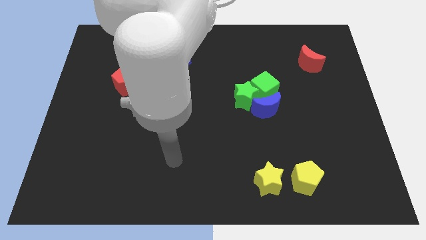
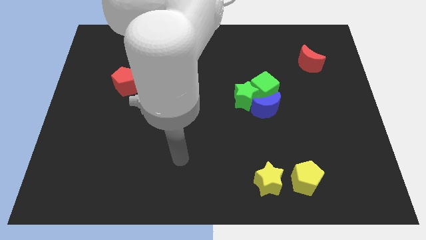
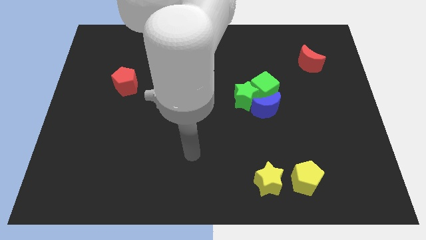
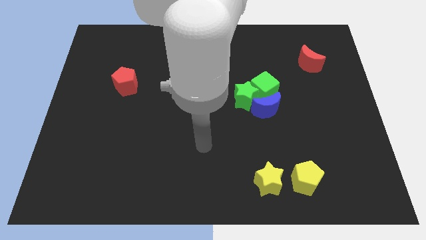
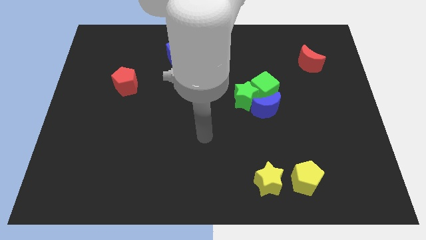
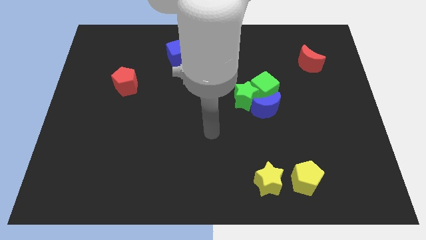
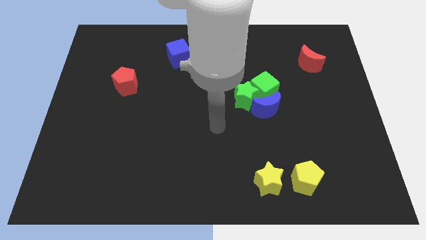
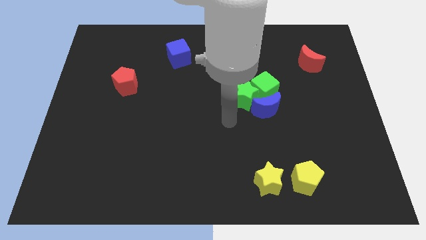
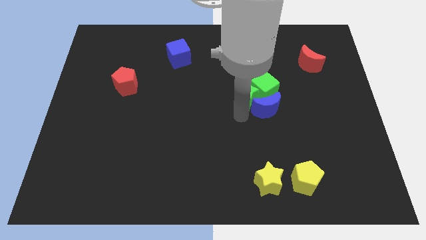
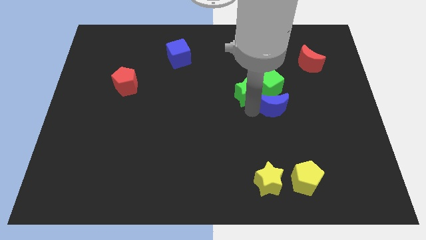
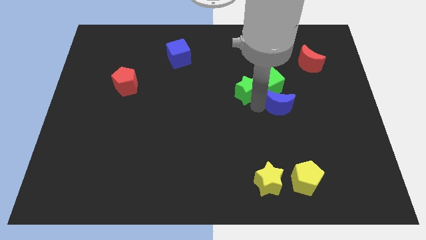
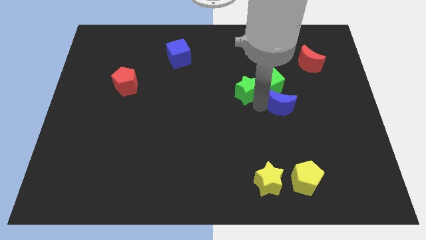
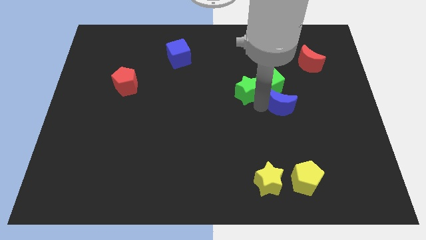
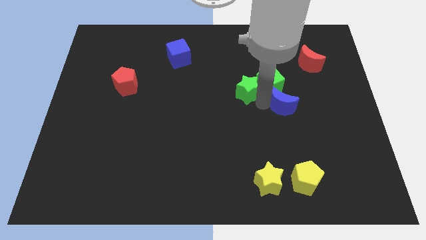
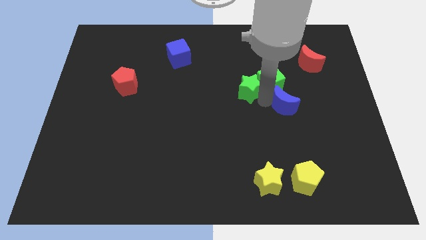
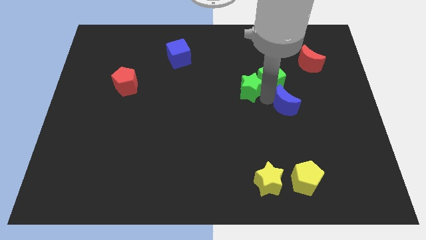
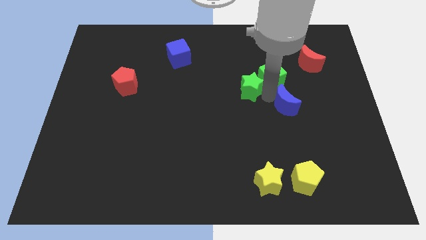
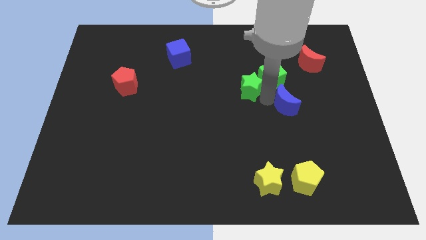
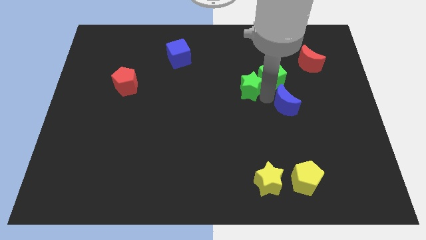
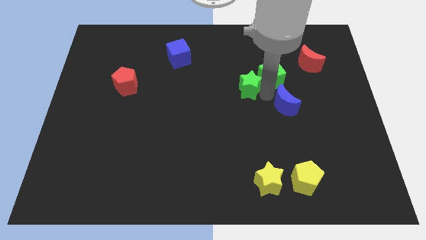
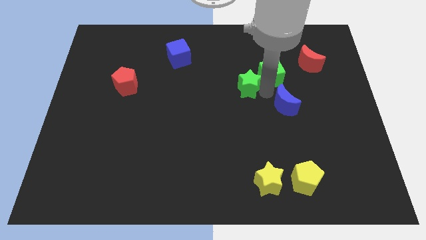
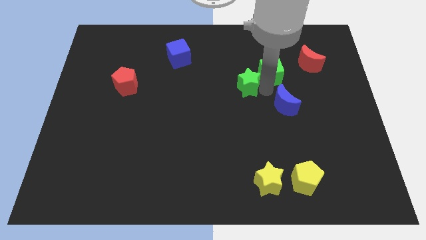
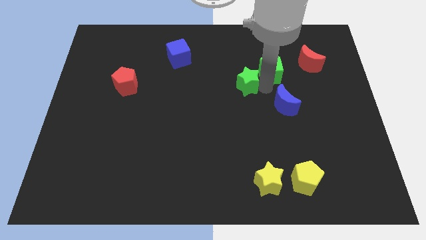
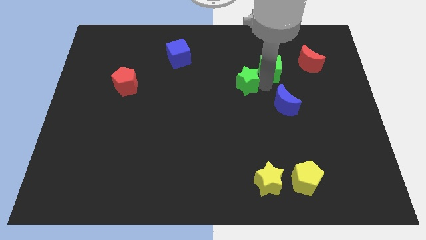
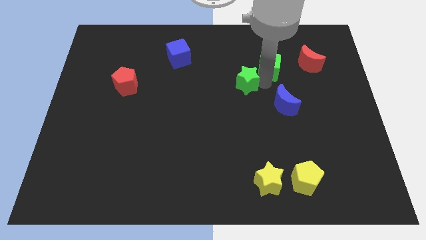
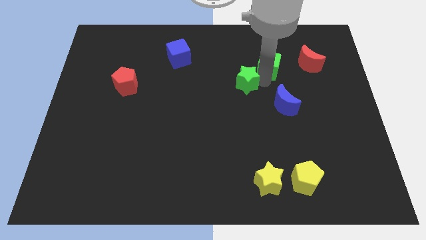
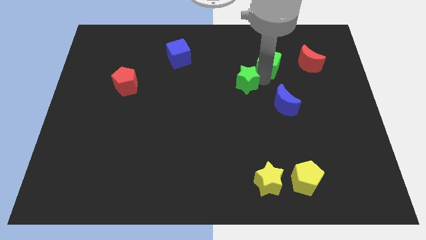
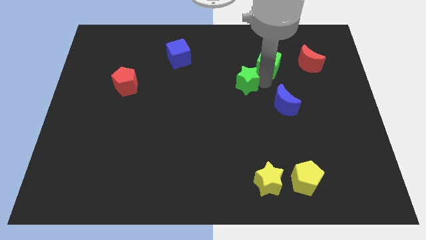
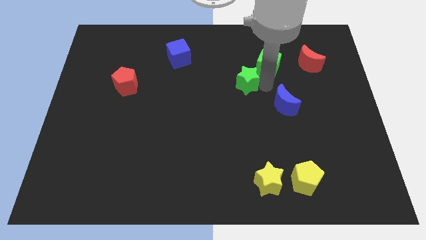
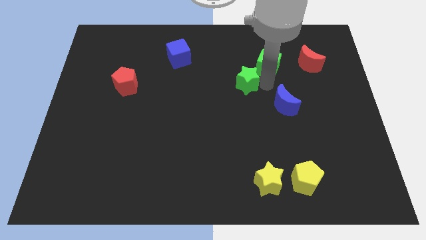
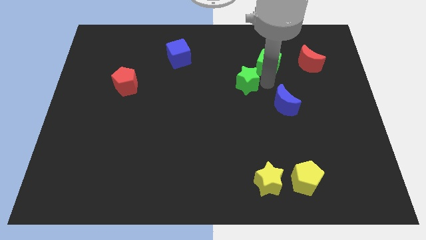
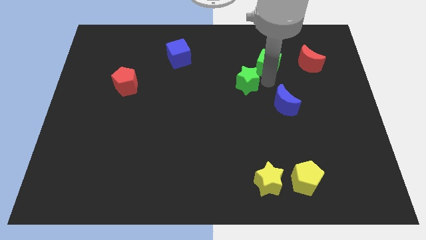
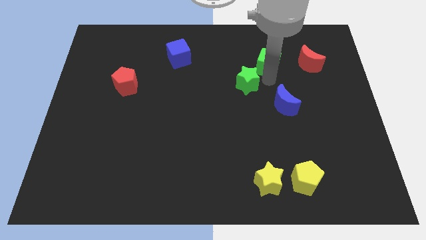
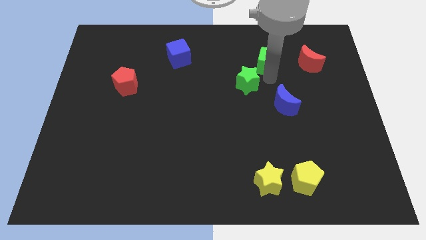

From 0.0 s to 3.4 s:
pull the green cube apart from the green star and blue moon

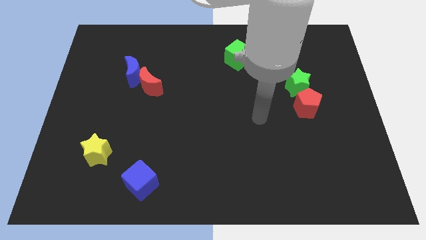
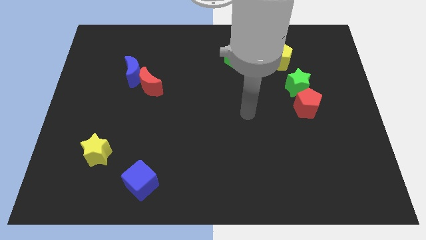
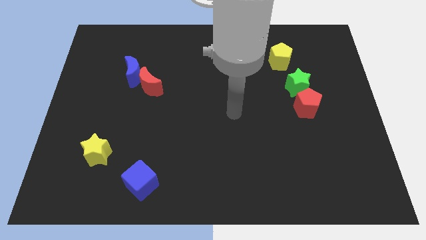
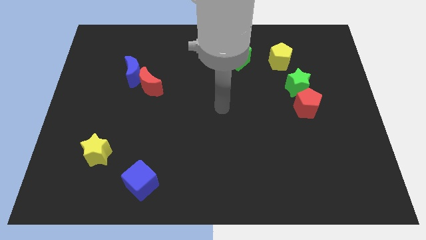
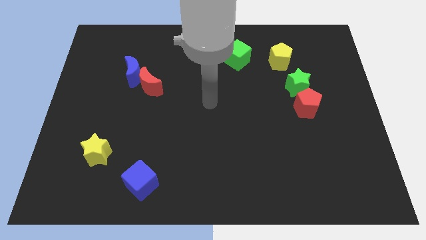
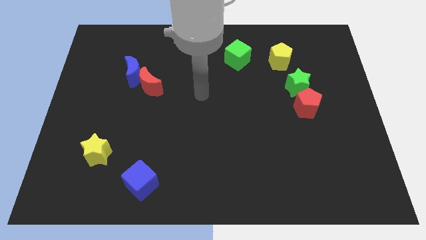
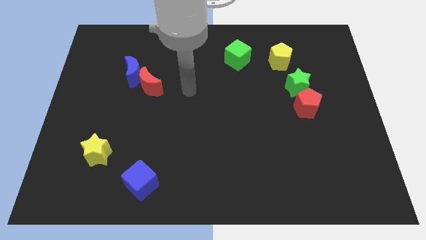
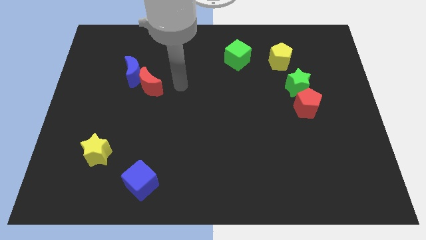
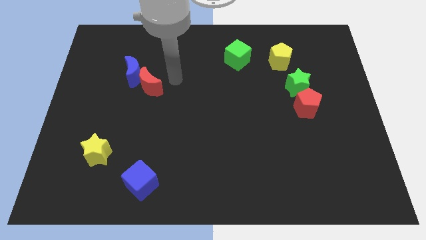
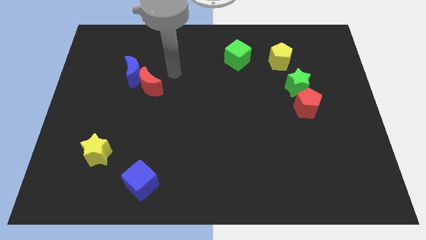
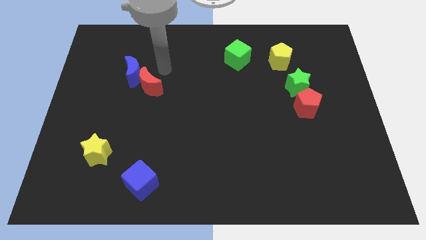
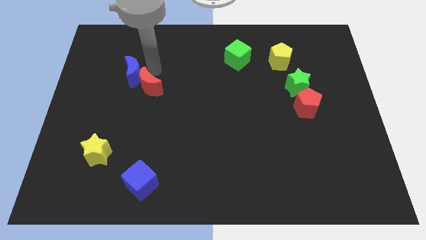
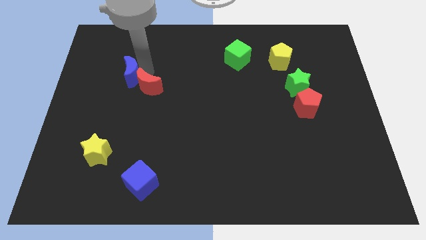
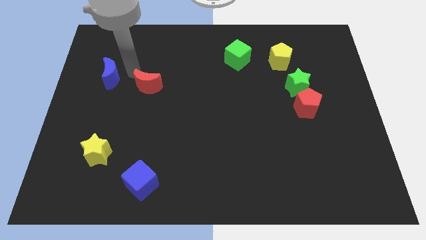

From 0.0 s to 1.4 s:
move the red moon away from the blue moon

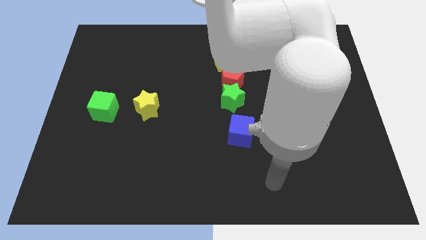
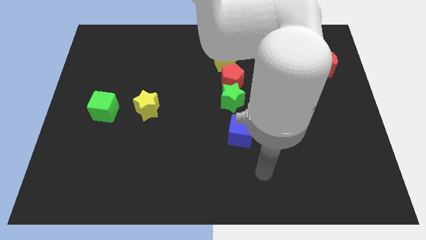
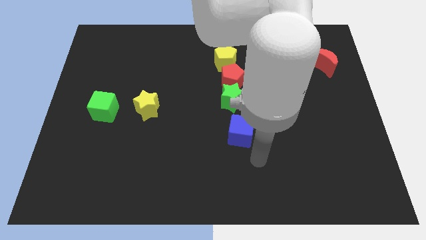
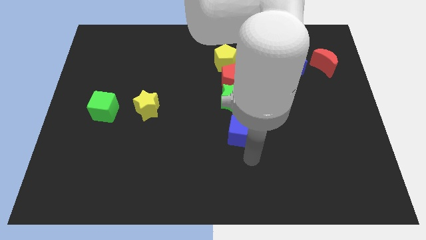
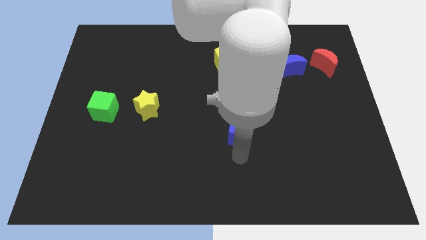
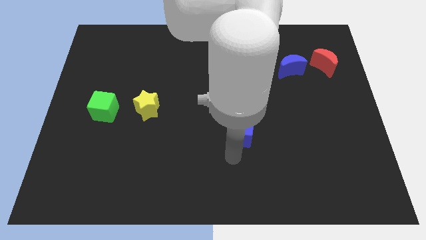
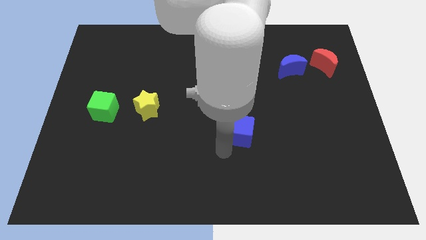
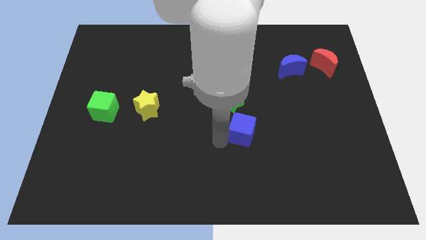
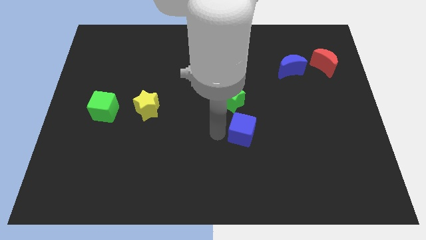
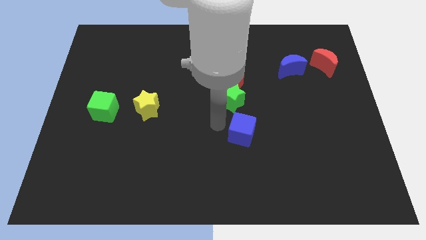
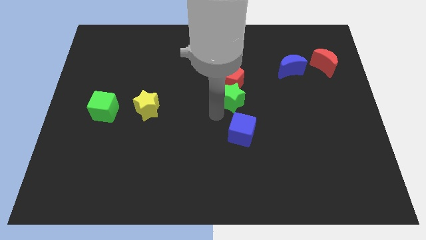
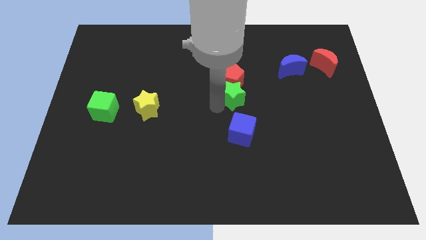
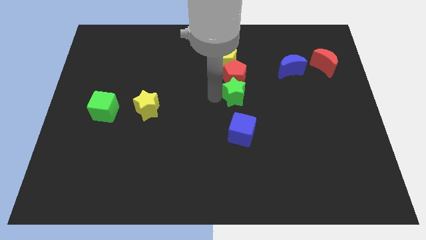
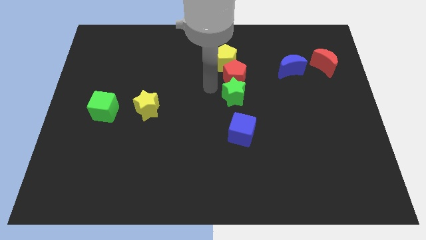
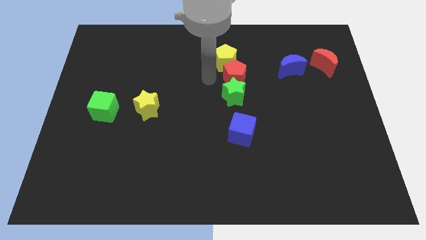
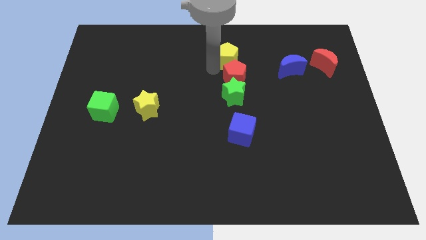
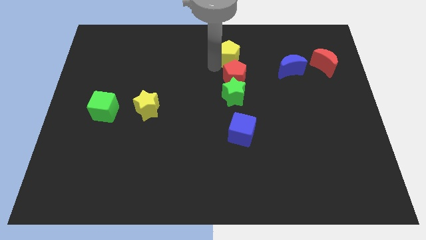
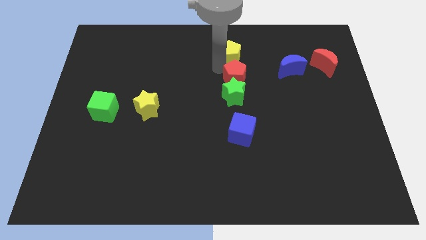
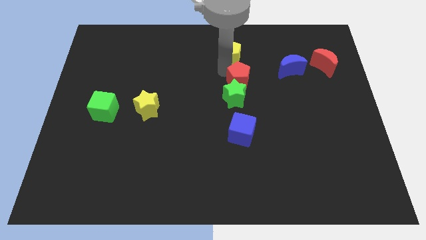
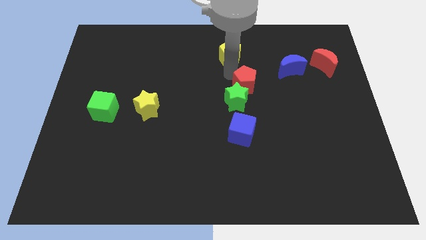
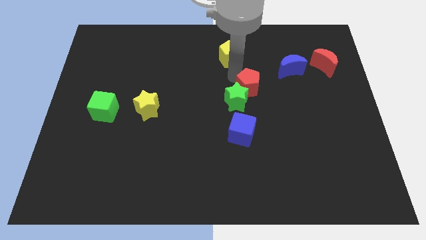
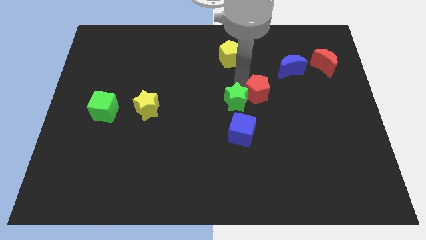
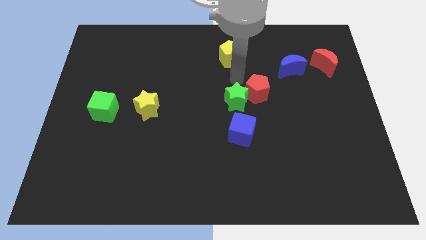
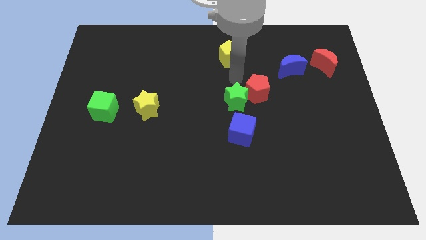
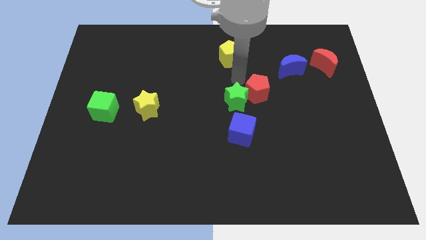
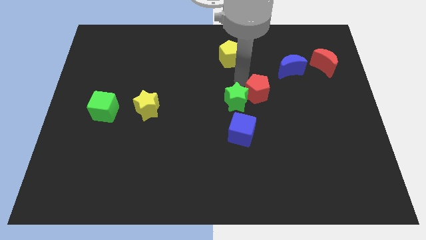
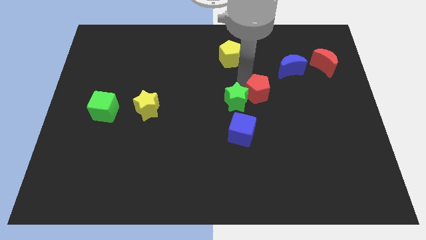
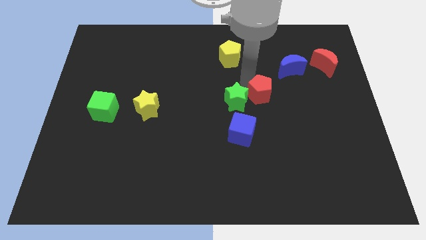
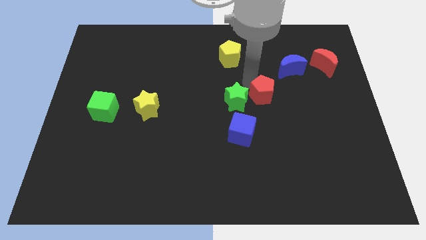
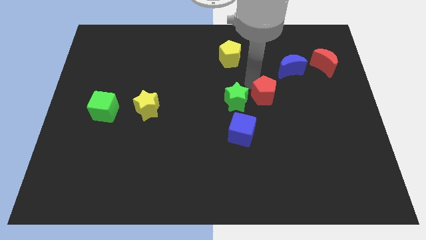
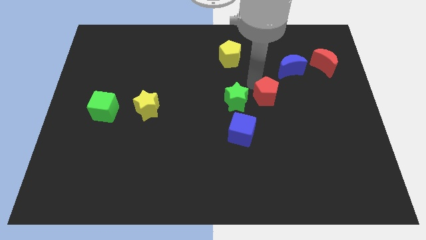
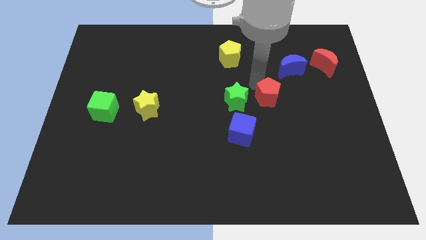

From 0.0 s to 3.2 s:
pull the red pentagon apart from the green star and yellow pentagon

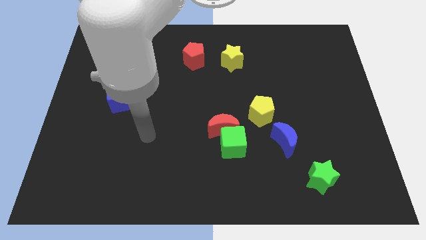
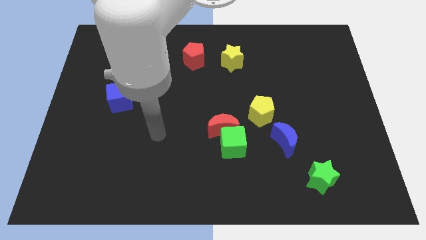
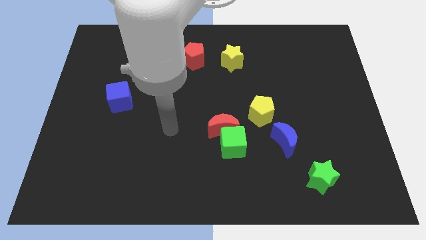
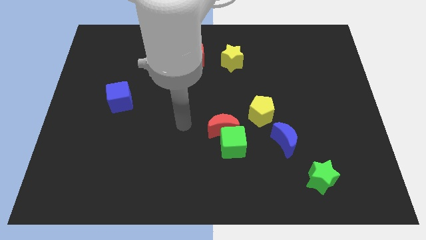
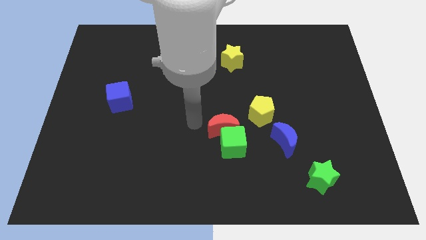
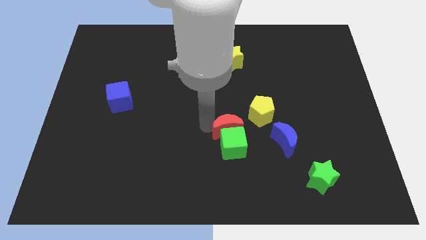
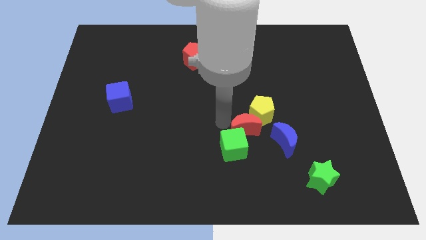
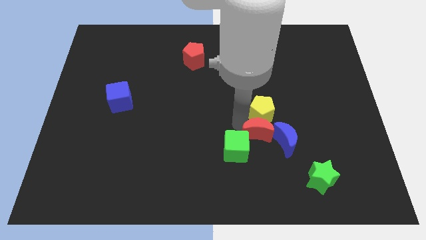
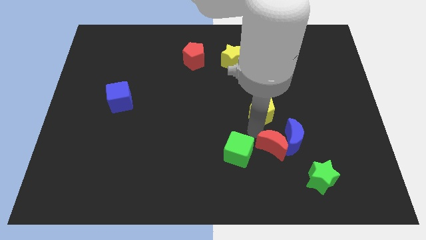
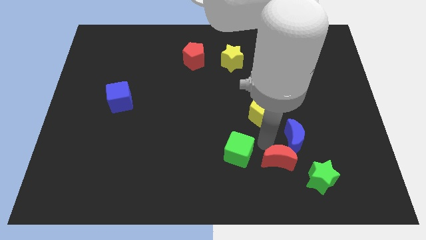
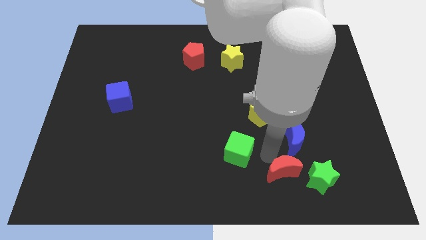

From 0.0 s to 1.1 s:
move the green cube away from the red moon

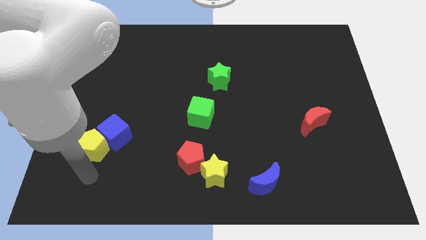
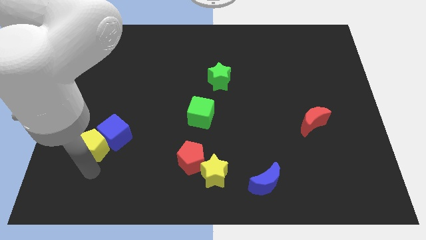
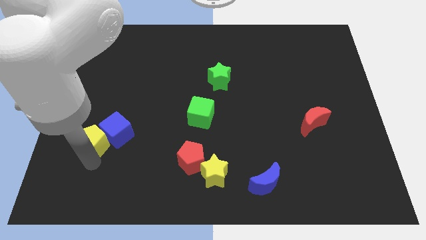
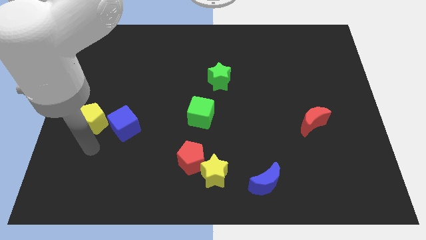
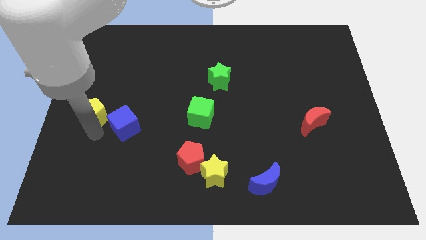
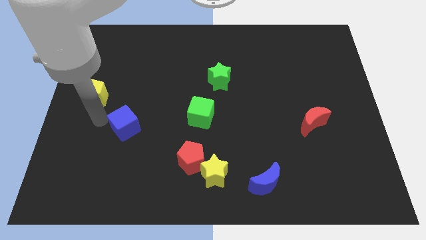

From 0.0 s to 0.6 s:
separate the blue cube from the yellow pentagon
